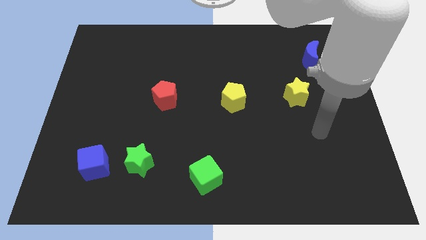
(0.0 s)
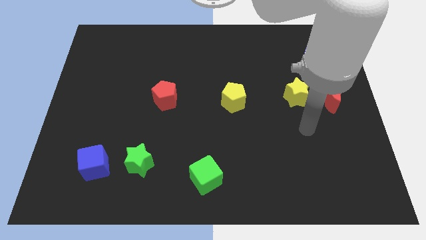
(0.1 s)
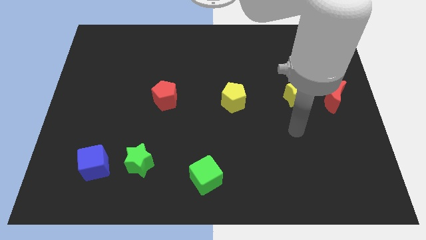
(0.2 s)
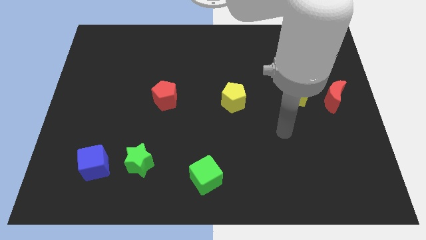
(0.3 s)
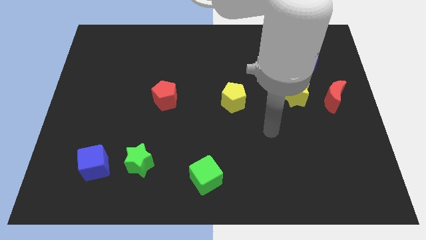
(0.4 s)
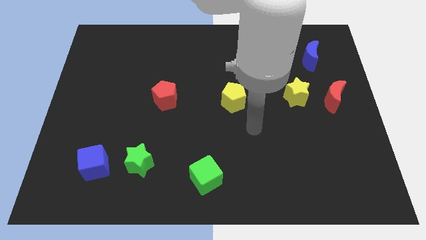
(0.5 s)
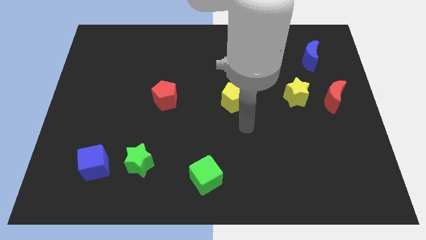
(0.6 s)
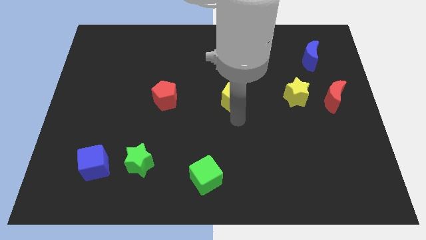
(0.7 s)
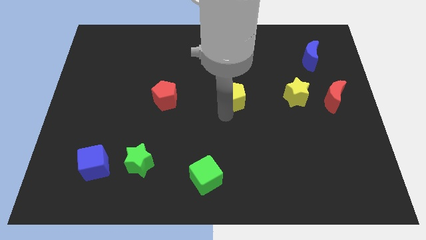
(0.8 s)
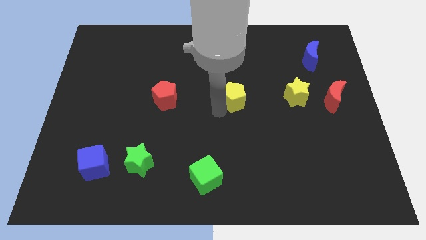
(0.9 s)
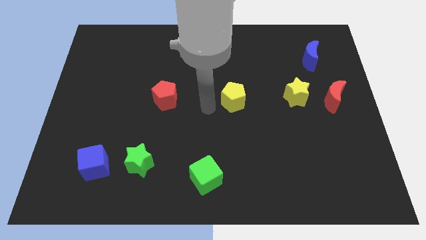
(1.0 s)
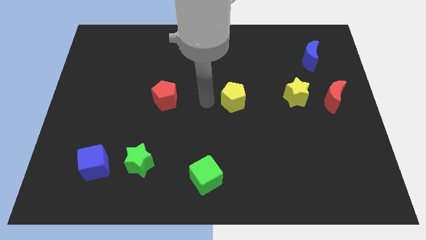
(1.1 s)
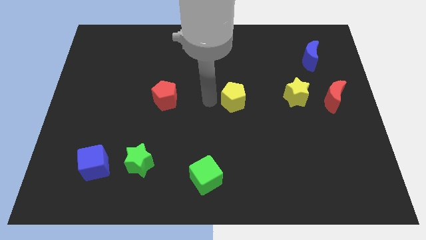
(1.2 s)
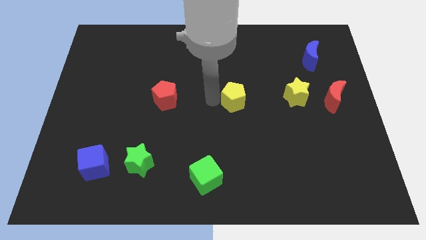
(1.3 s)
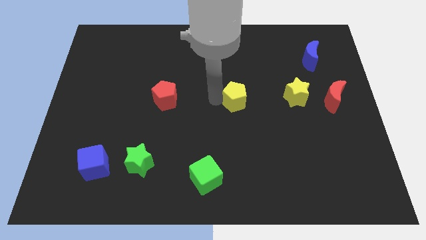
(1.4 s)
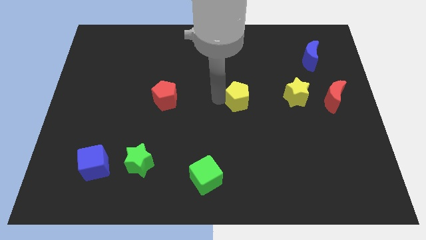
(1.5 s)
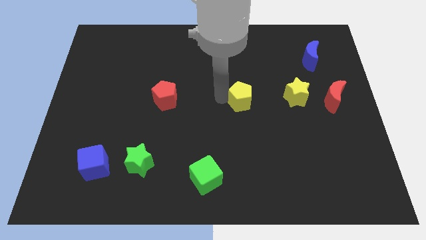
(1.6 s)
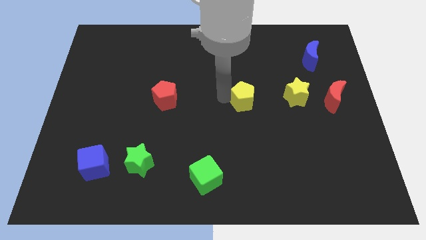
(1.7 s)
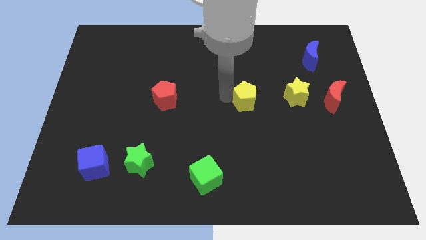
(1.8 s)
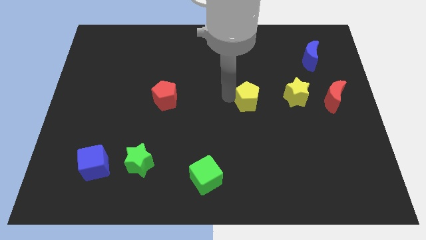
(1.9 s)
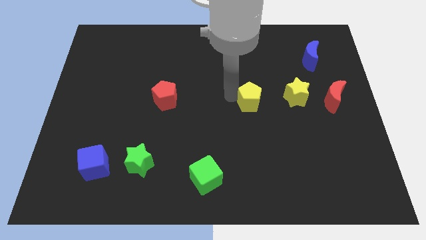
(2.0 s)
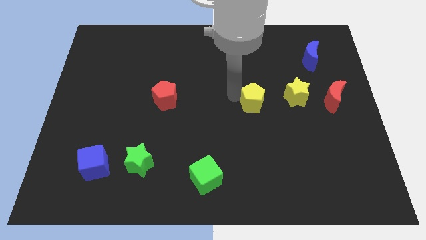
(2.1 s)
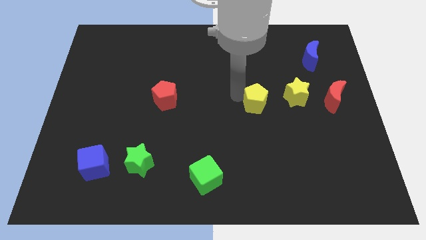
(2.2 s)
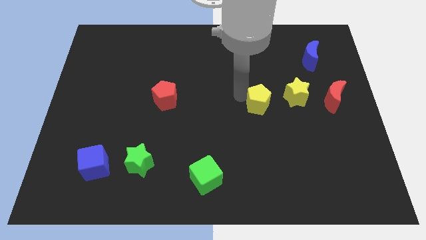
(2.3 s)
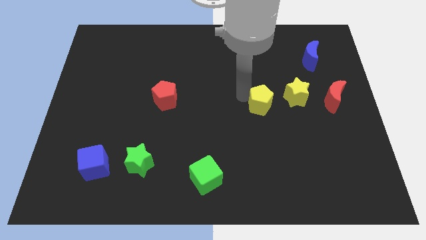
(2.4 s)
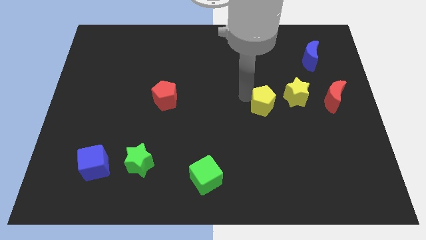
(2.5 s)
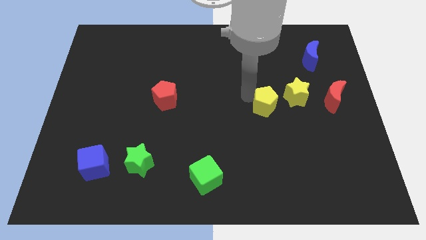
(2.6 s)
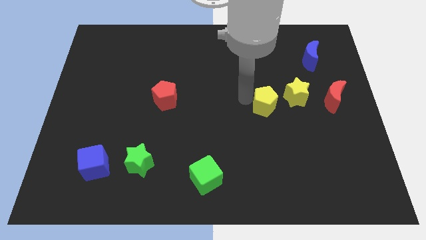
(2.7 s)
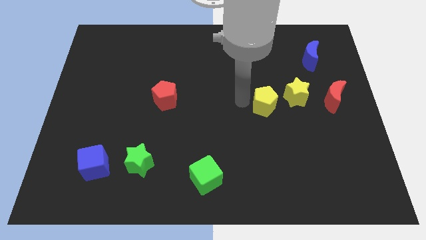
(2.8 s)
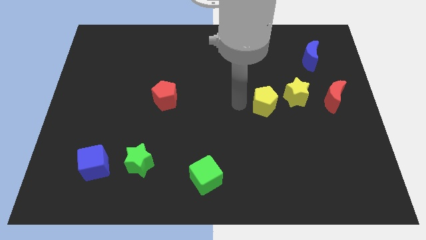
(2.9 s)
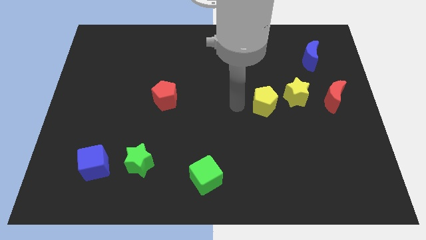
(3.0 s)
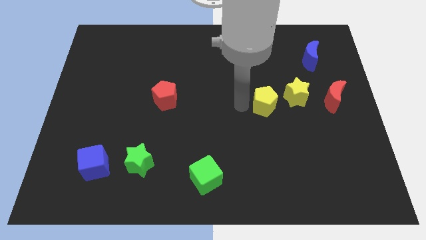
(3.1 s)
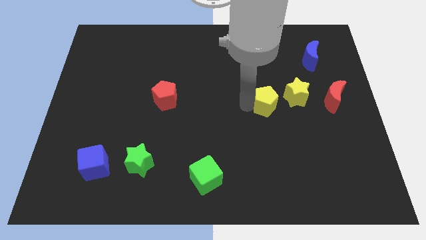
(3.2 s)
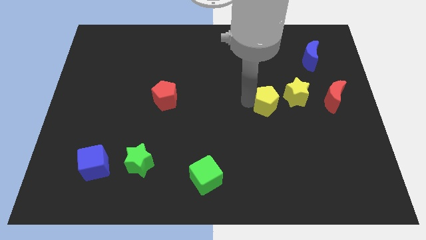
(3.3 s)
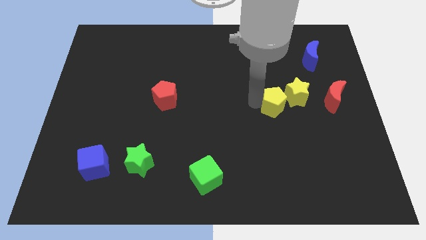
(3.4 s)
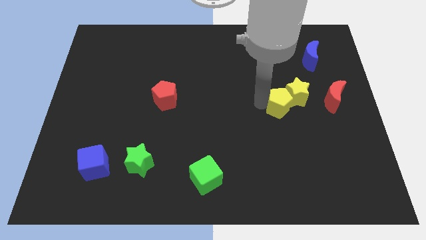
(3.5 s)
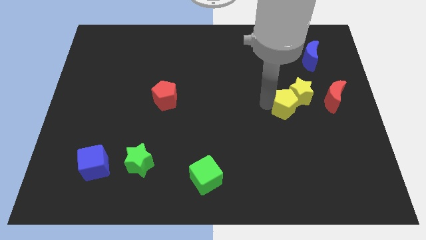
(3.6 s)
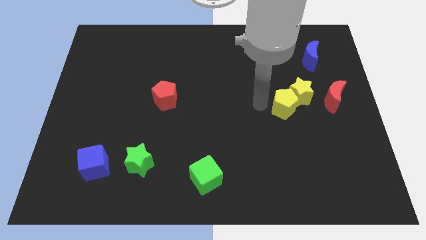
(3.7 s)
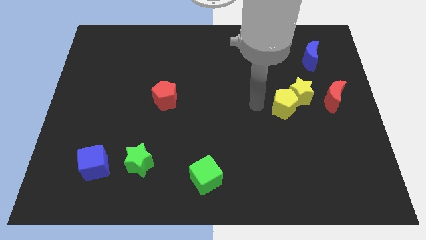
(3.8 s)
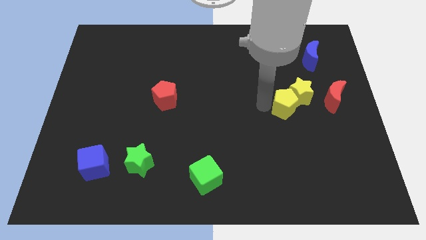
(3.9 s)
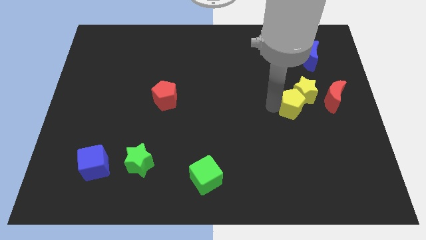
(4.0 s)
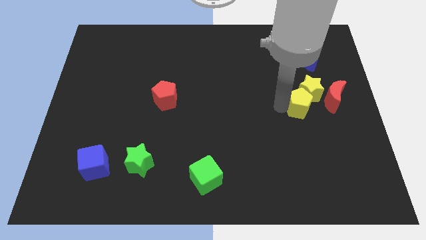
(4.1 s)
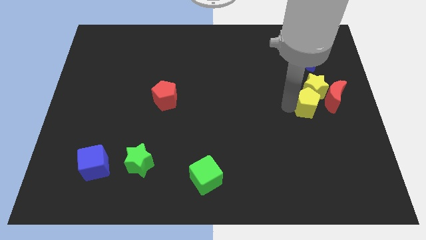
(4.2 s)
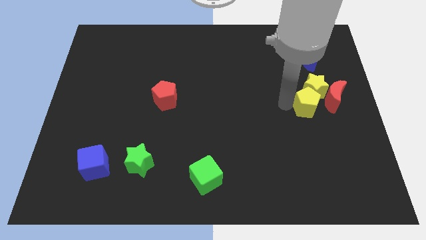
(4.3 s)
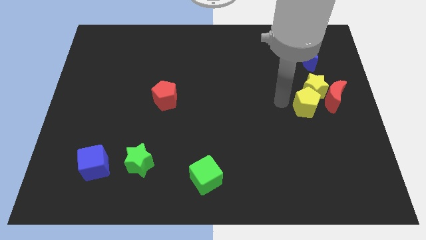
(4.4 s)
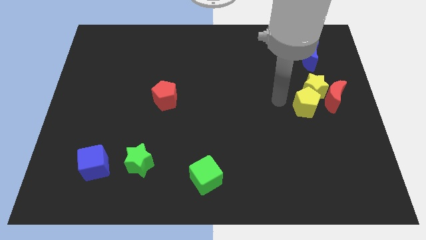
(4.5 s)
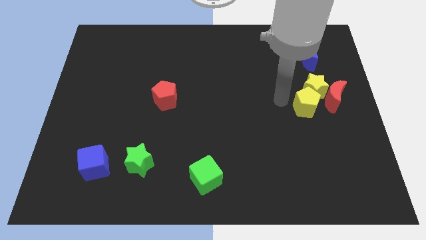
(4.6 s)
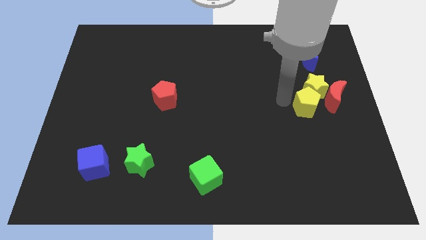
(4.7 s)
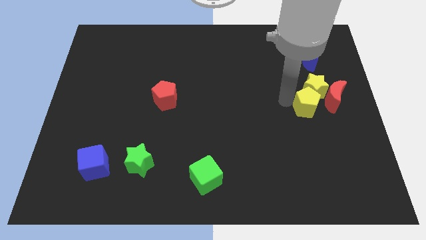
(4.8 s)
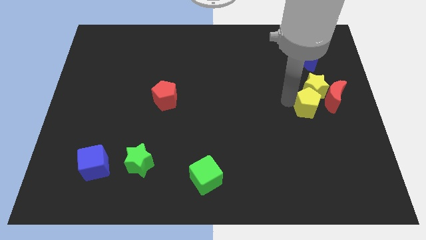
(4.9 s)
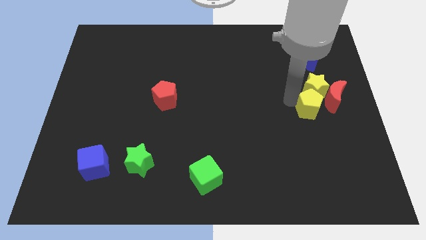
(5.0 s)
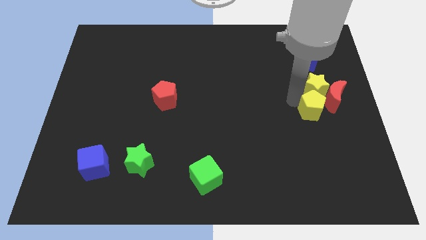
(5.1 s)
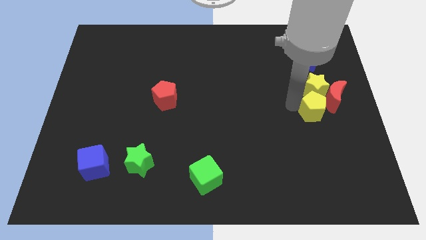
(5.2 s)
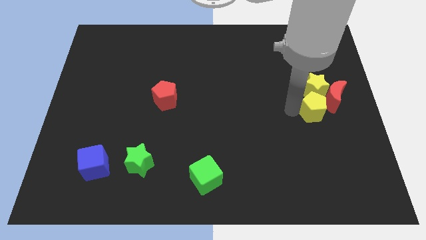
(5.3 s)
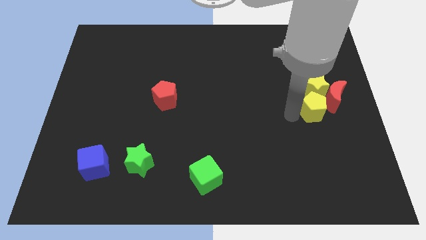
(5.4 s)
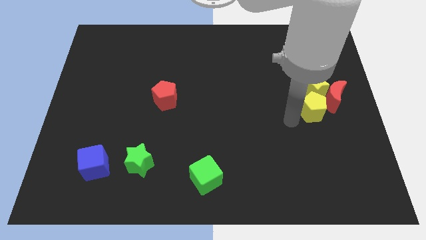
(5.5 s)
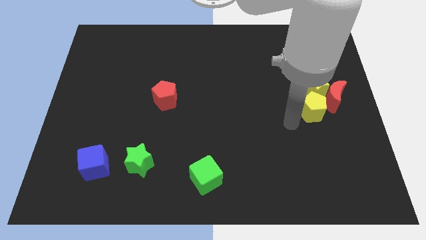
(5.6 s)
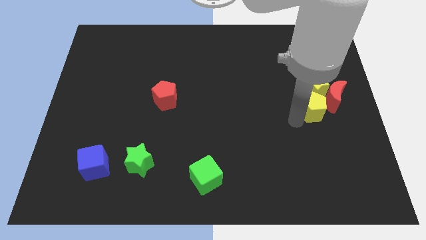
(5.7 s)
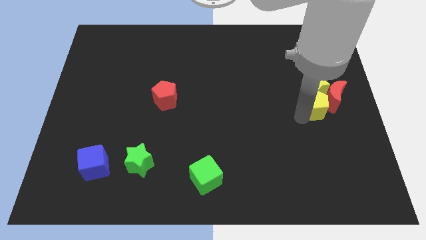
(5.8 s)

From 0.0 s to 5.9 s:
move the yellow pentagon to the red moon

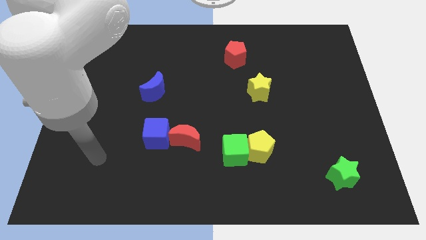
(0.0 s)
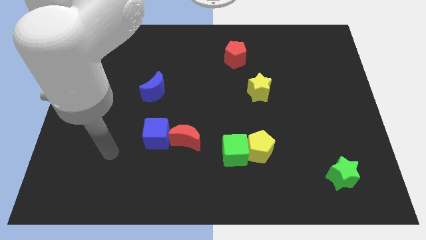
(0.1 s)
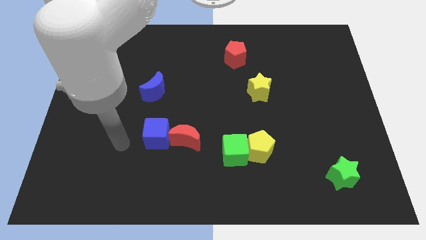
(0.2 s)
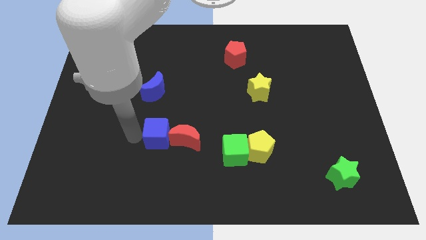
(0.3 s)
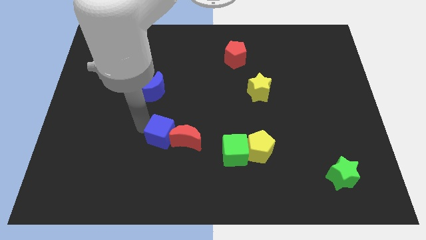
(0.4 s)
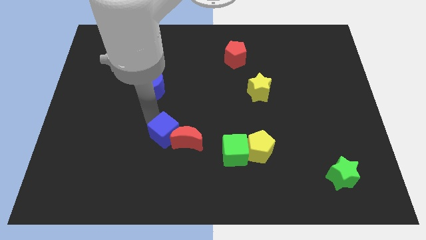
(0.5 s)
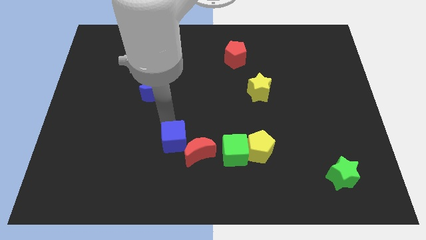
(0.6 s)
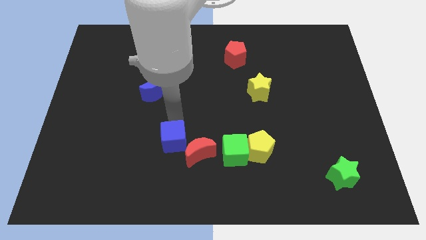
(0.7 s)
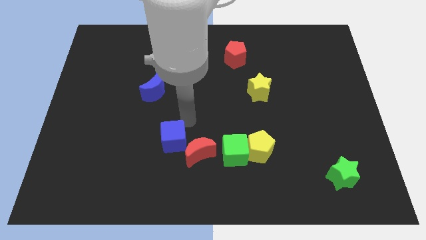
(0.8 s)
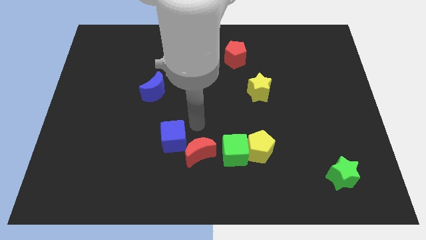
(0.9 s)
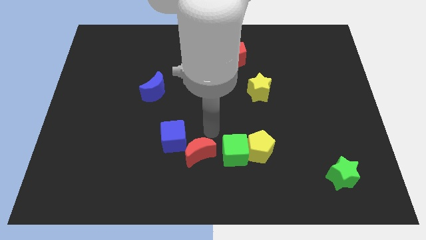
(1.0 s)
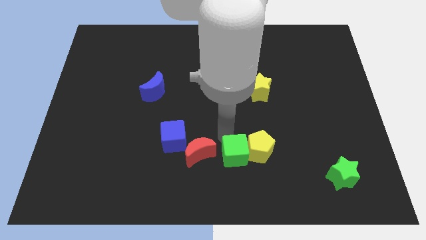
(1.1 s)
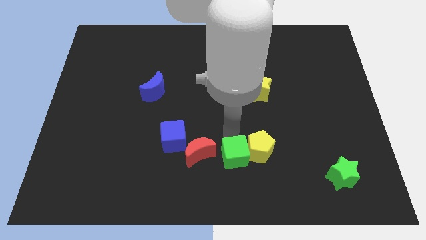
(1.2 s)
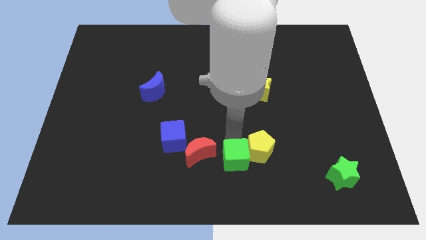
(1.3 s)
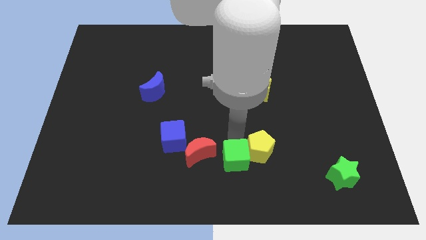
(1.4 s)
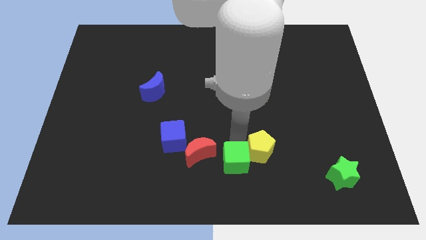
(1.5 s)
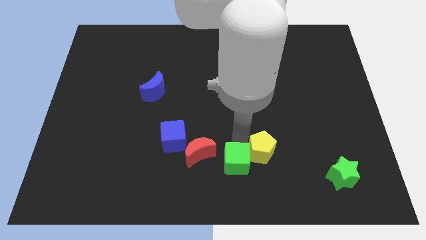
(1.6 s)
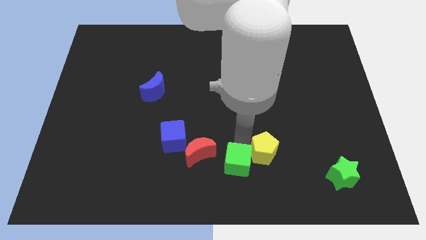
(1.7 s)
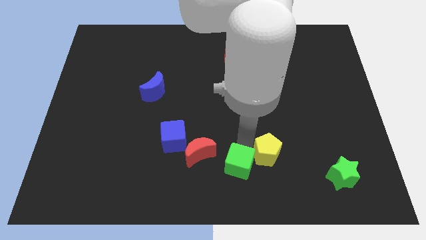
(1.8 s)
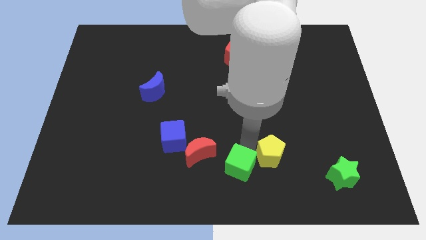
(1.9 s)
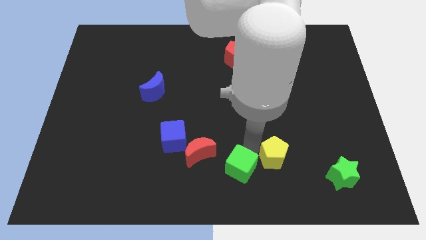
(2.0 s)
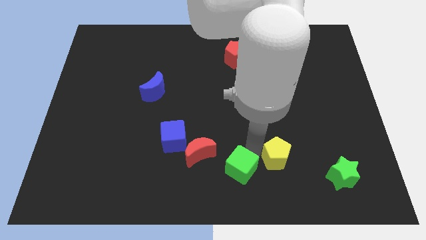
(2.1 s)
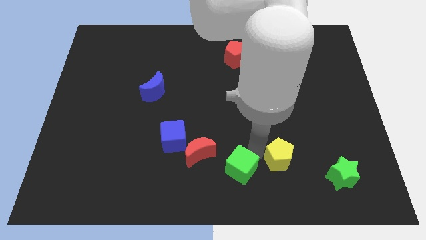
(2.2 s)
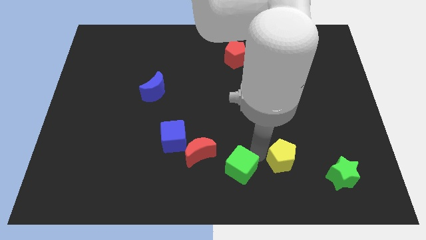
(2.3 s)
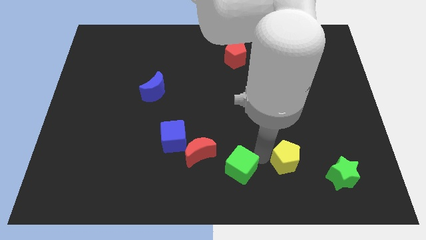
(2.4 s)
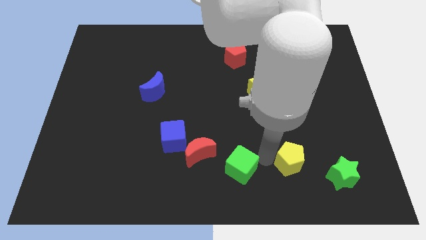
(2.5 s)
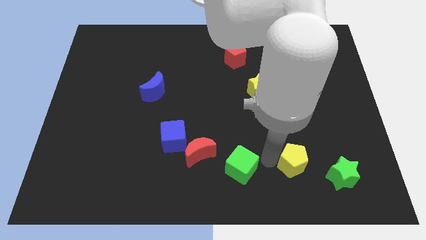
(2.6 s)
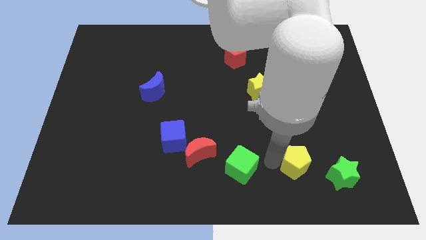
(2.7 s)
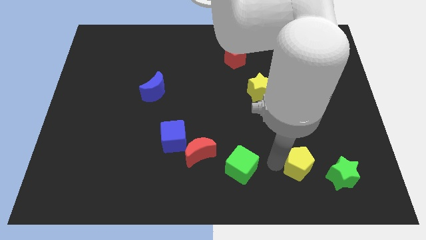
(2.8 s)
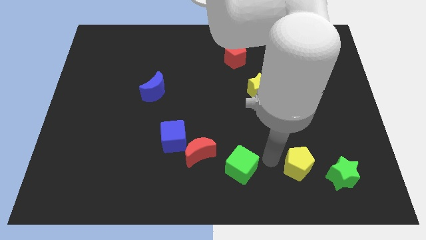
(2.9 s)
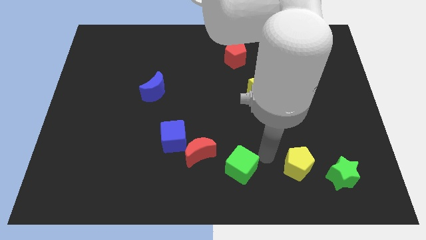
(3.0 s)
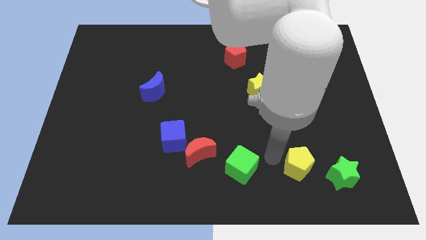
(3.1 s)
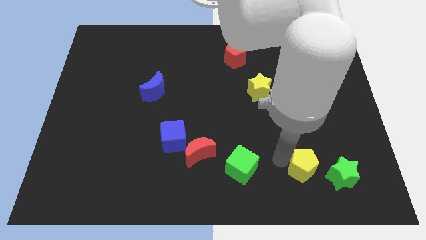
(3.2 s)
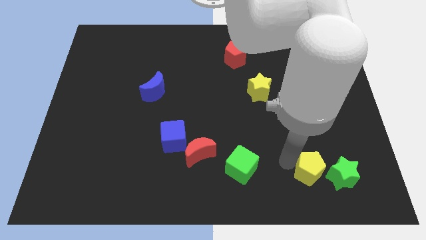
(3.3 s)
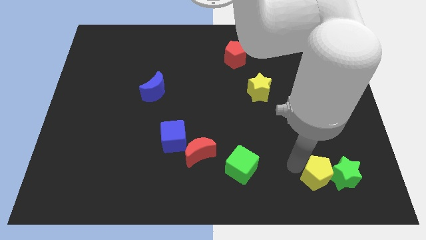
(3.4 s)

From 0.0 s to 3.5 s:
move the yellow pentagon to the green star
